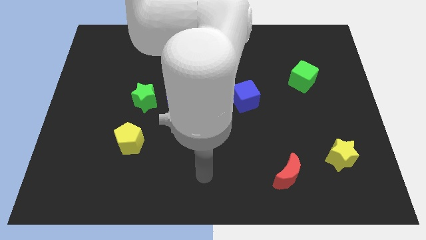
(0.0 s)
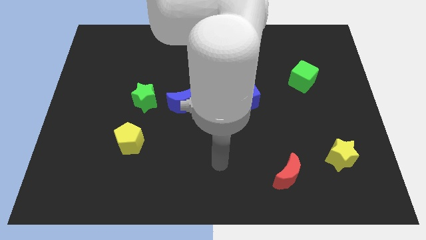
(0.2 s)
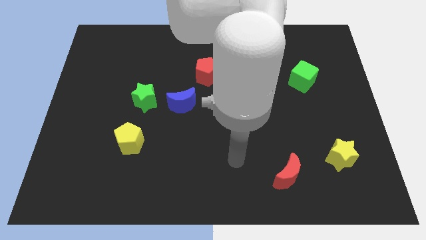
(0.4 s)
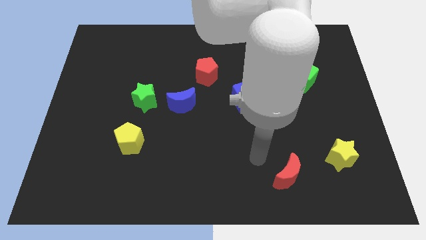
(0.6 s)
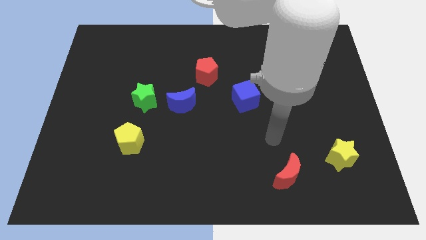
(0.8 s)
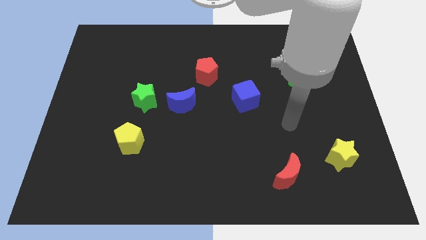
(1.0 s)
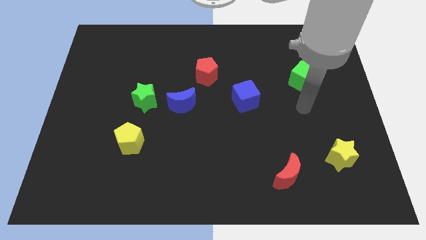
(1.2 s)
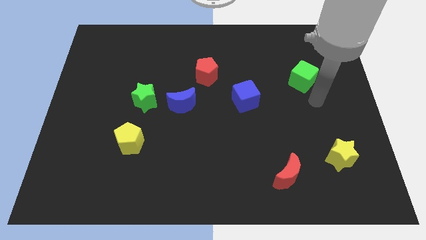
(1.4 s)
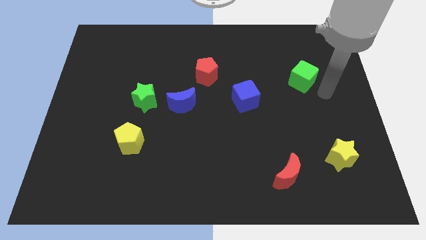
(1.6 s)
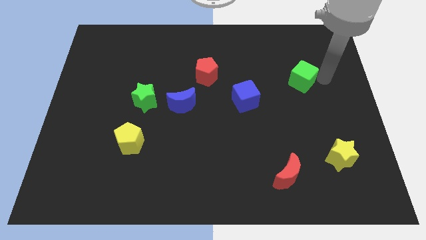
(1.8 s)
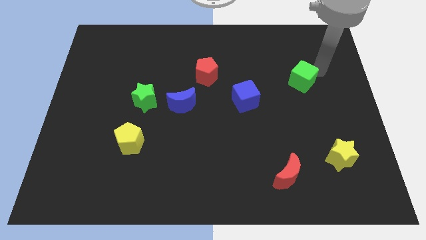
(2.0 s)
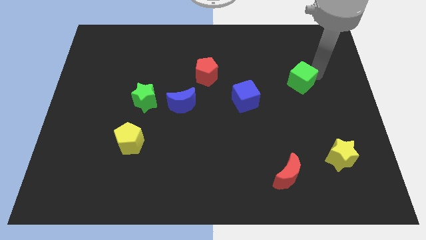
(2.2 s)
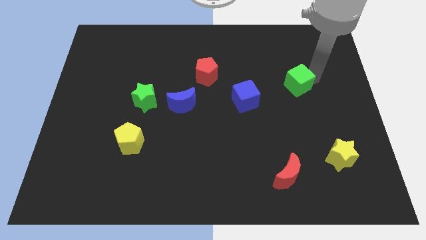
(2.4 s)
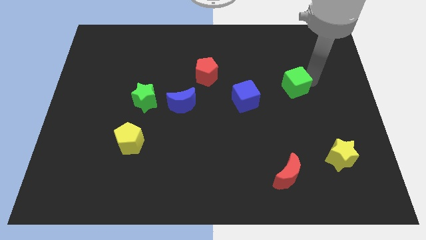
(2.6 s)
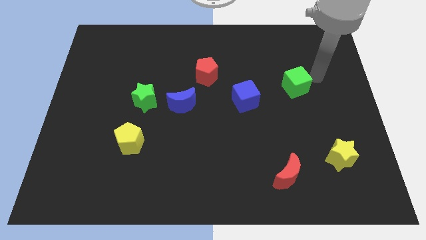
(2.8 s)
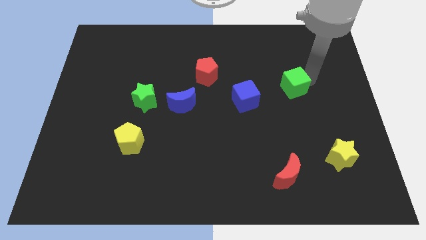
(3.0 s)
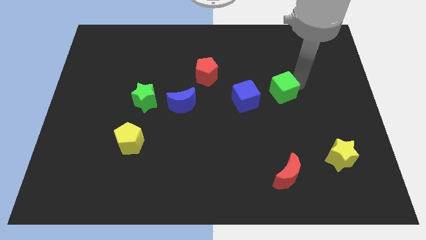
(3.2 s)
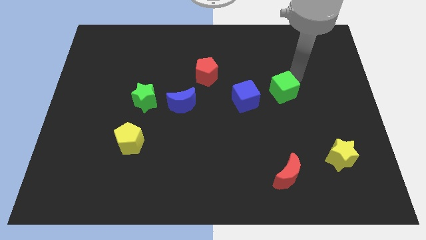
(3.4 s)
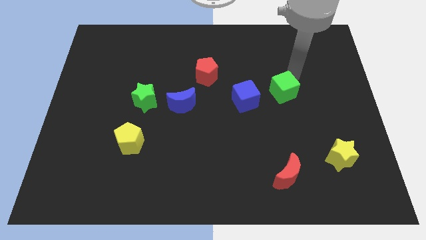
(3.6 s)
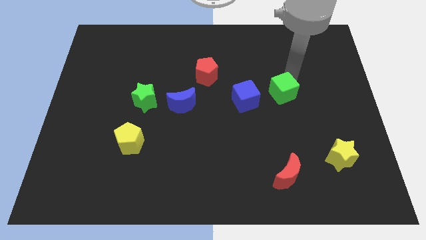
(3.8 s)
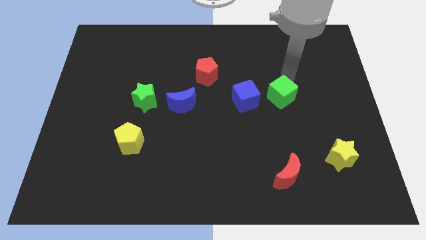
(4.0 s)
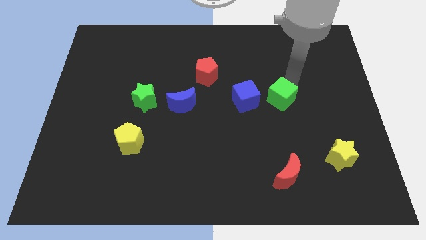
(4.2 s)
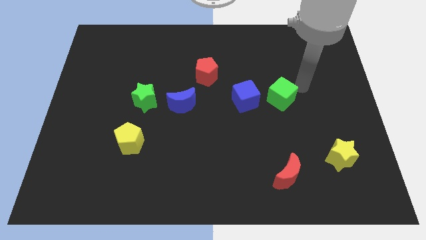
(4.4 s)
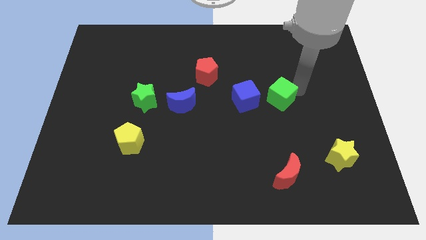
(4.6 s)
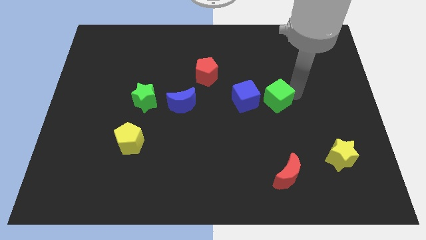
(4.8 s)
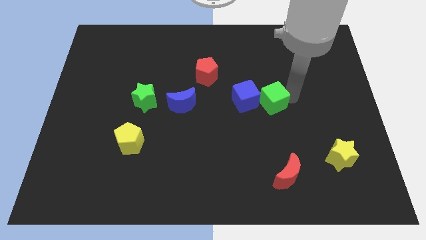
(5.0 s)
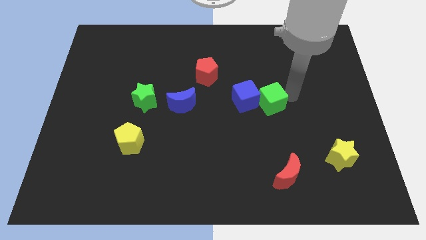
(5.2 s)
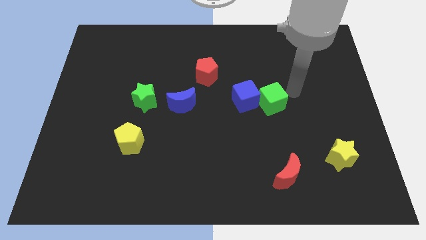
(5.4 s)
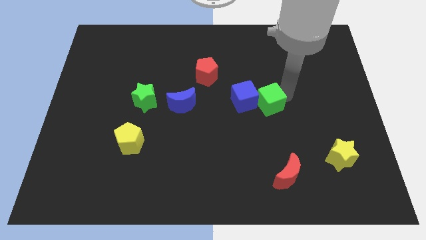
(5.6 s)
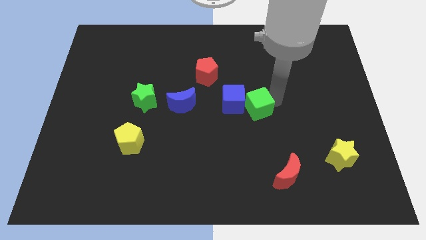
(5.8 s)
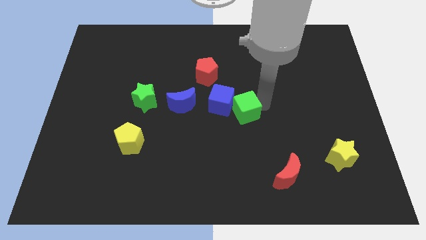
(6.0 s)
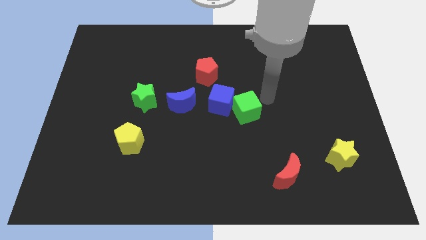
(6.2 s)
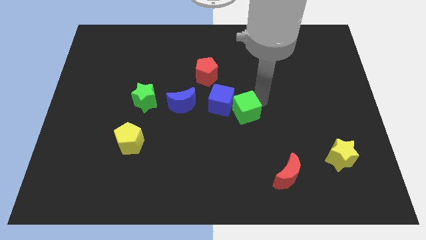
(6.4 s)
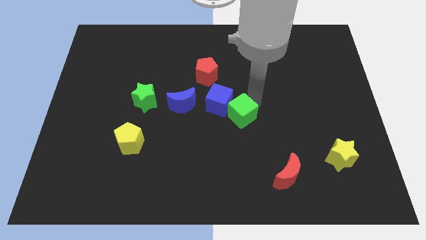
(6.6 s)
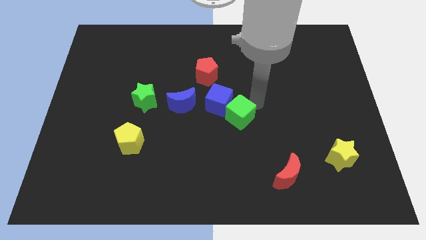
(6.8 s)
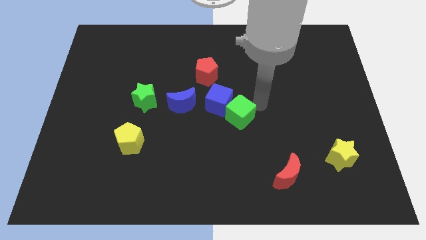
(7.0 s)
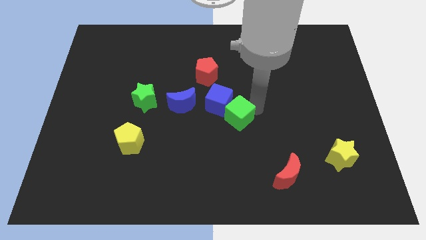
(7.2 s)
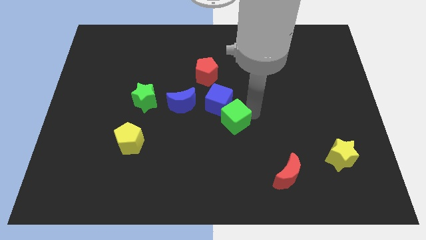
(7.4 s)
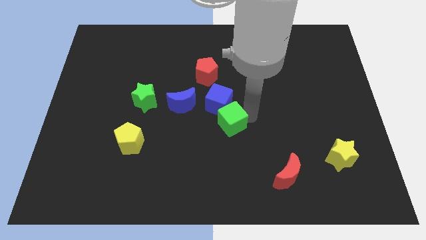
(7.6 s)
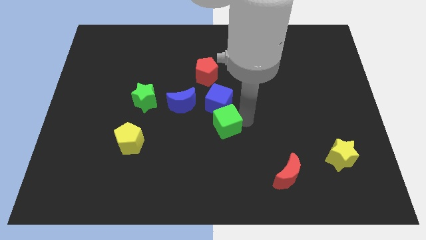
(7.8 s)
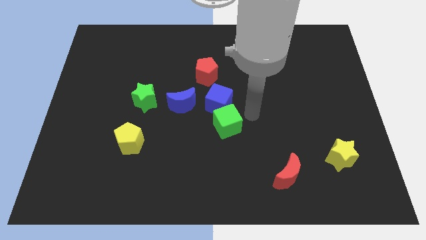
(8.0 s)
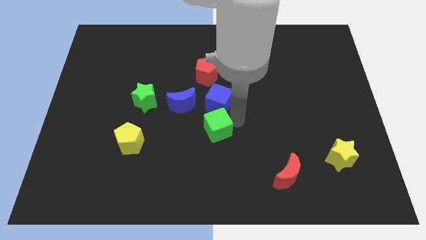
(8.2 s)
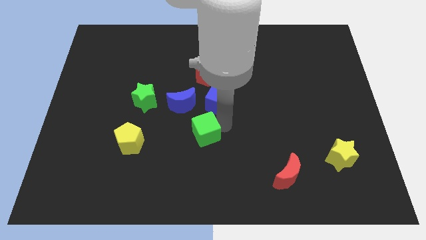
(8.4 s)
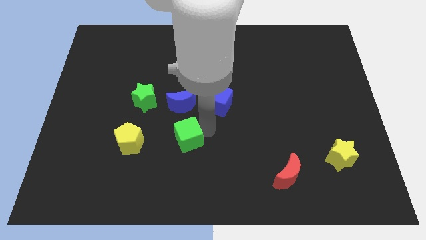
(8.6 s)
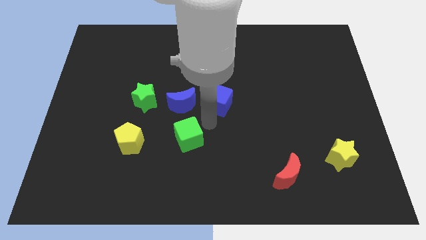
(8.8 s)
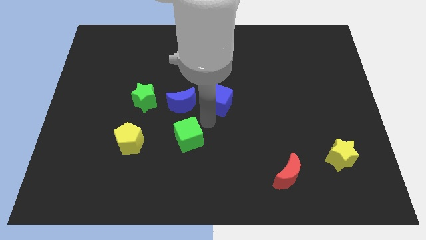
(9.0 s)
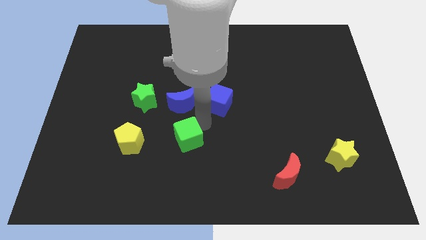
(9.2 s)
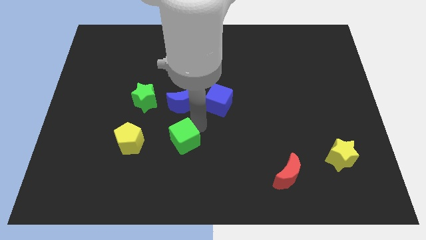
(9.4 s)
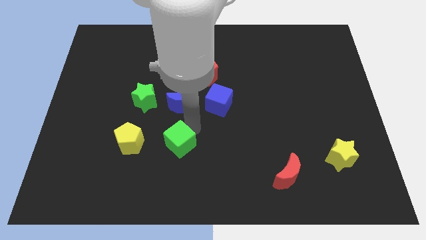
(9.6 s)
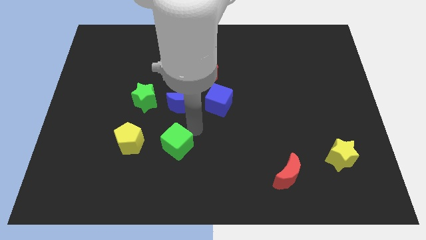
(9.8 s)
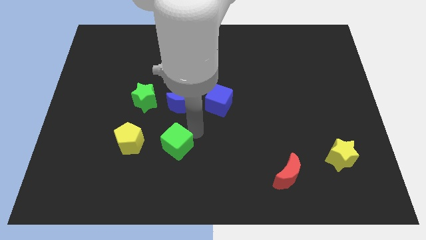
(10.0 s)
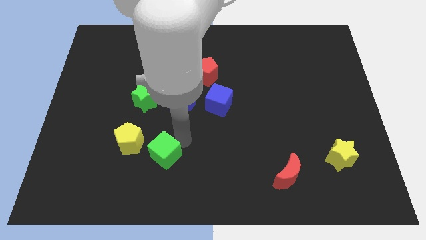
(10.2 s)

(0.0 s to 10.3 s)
push the green cube to the bottom right of the yellow pentagon

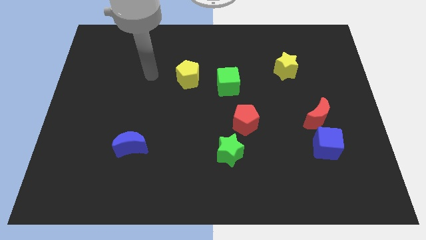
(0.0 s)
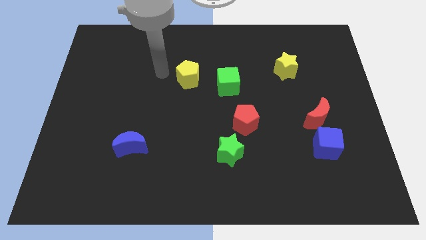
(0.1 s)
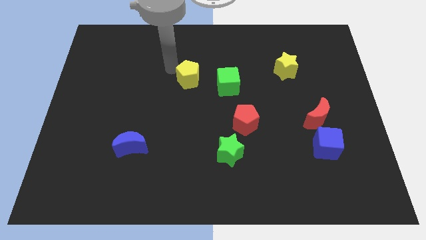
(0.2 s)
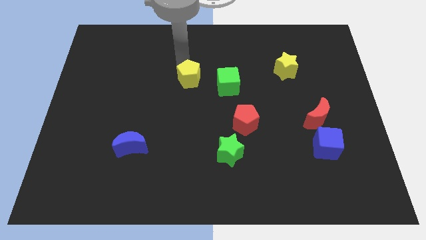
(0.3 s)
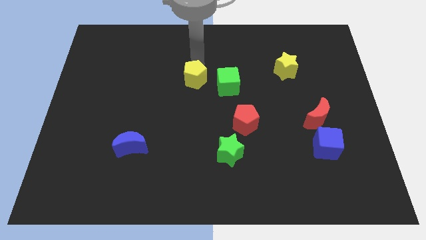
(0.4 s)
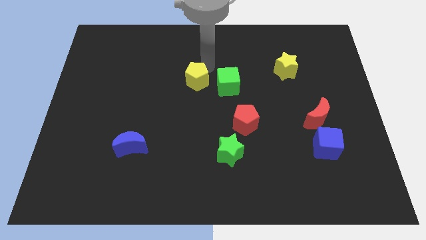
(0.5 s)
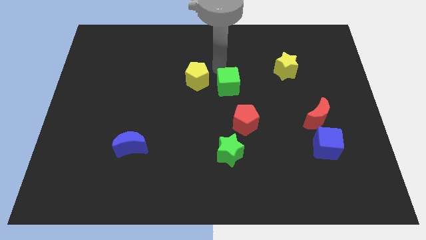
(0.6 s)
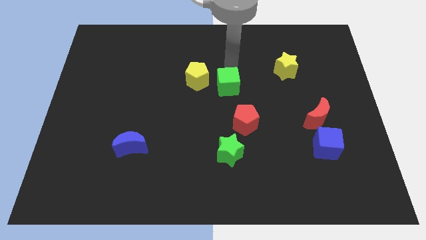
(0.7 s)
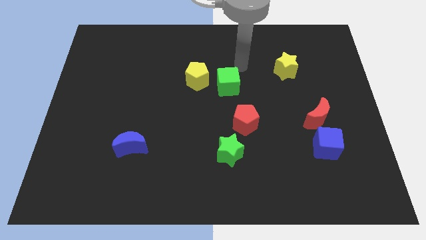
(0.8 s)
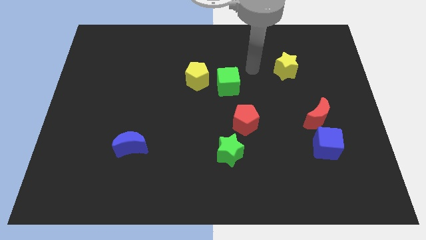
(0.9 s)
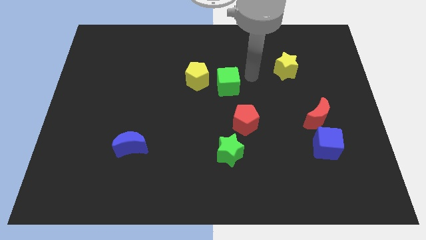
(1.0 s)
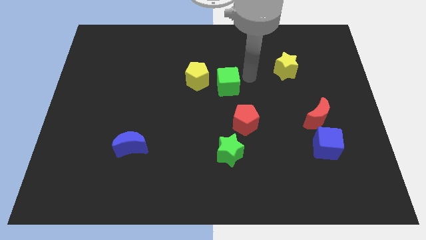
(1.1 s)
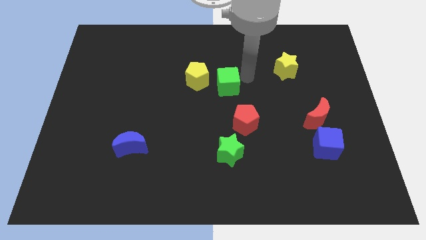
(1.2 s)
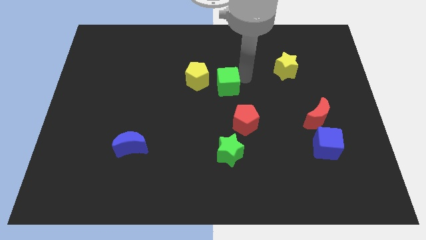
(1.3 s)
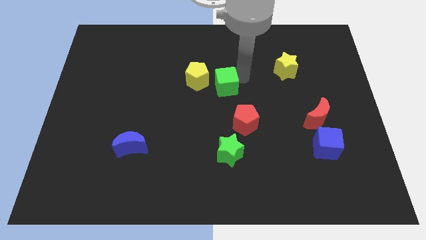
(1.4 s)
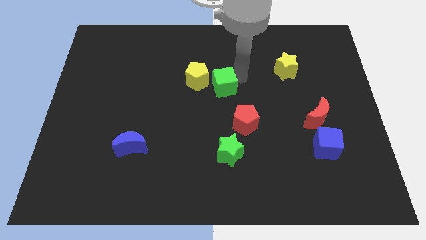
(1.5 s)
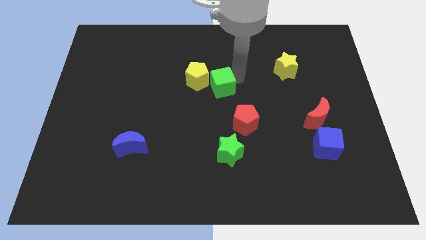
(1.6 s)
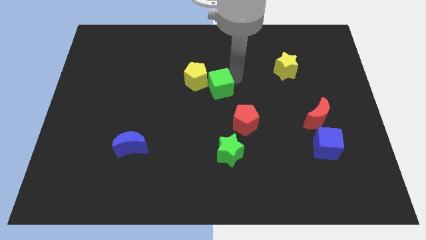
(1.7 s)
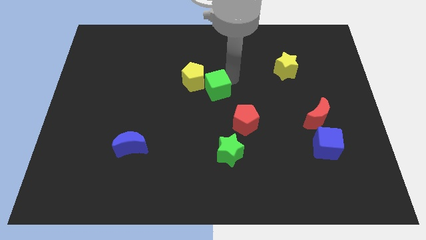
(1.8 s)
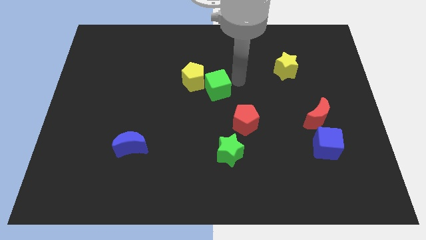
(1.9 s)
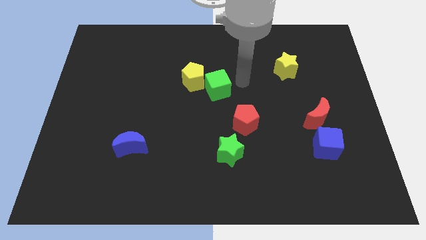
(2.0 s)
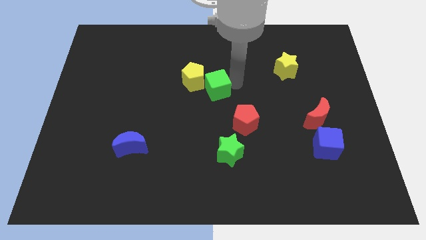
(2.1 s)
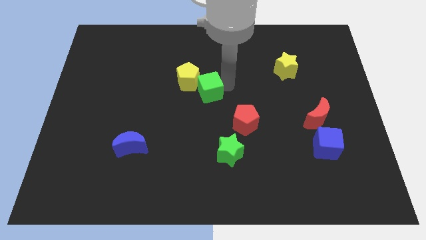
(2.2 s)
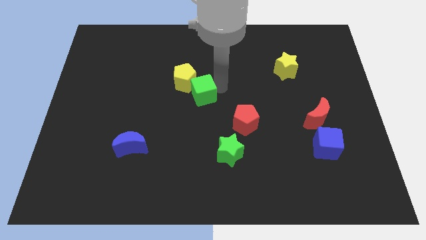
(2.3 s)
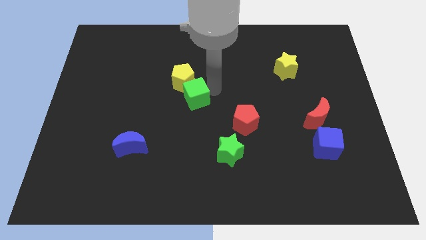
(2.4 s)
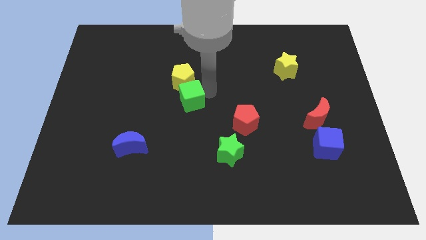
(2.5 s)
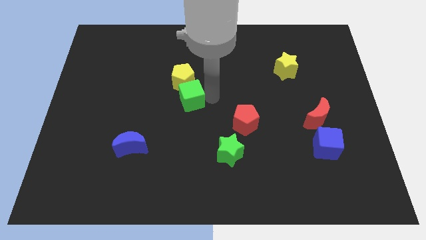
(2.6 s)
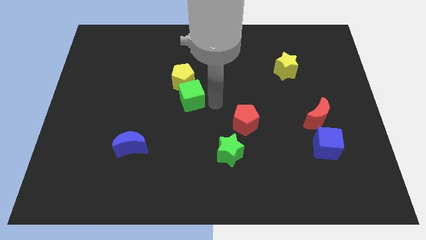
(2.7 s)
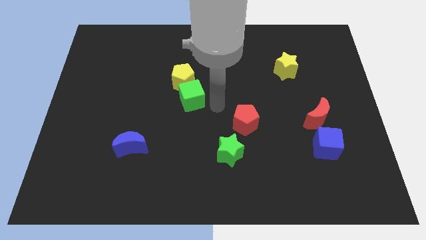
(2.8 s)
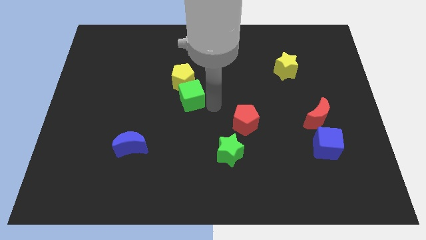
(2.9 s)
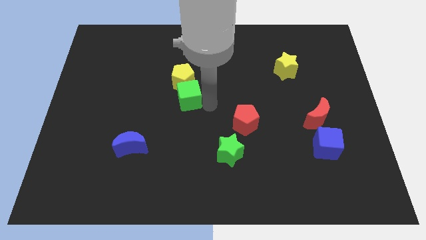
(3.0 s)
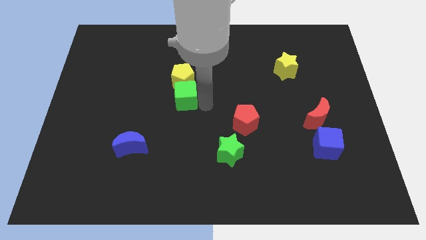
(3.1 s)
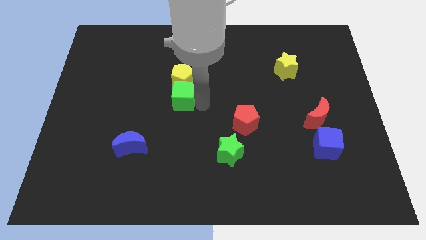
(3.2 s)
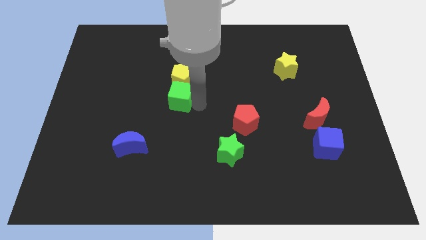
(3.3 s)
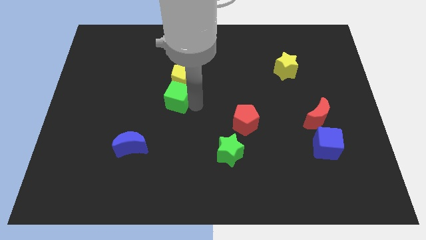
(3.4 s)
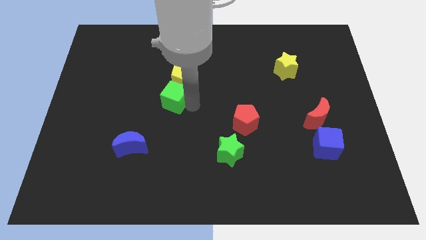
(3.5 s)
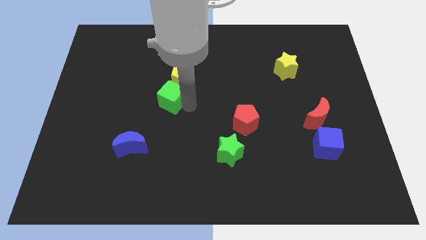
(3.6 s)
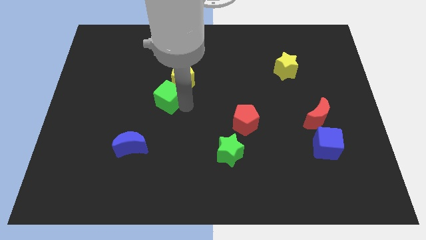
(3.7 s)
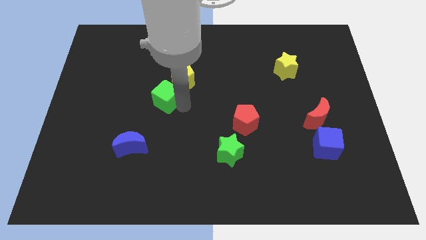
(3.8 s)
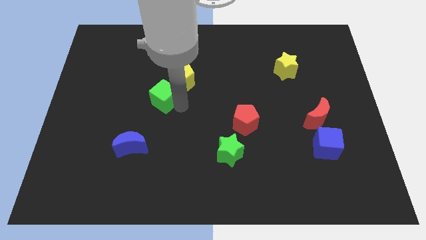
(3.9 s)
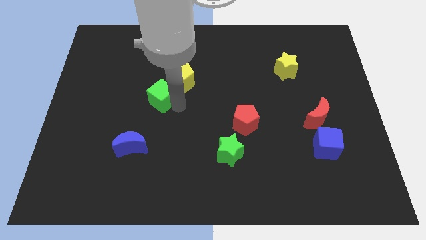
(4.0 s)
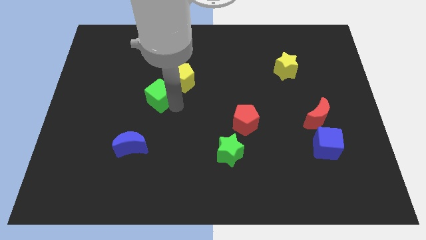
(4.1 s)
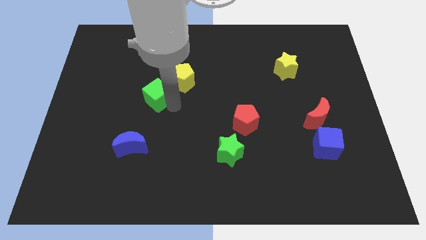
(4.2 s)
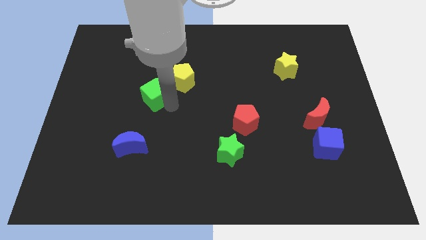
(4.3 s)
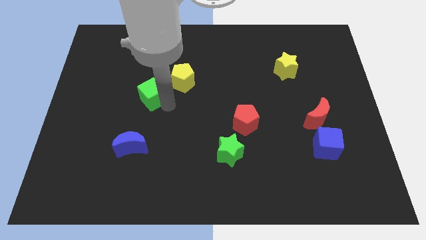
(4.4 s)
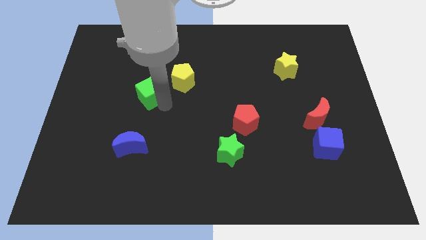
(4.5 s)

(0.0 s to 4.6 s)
slide the green cube left of the yellow pentagon
